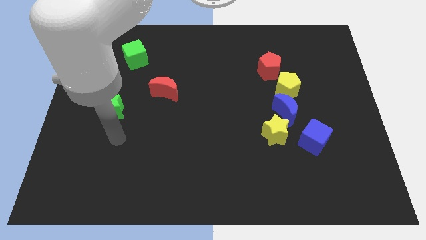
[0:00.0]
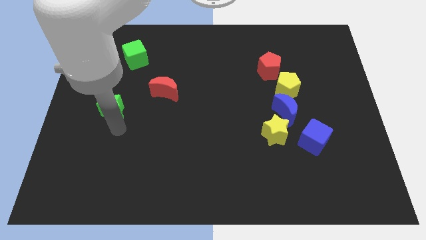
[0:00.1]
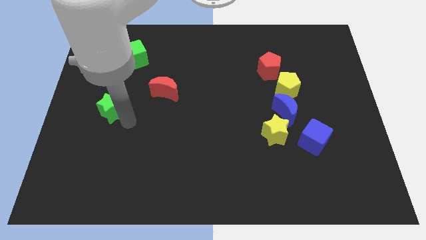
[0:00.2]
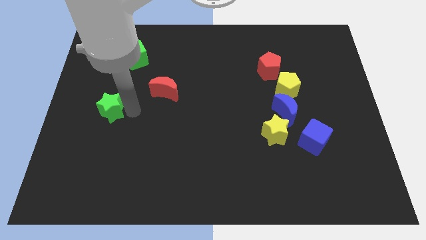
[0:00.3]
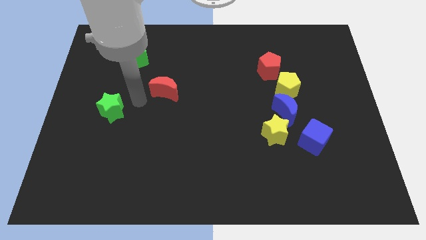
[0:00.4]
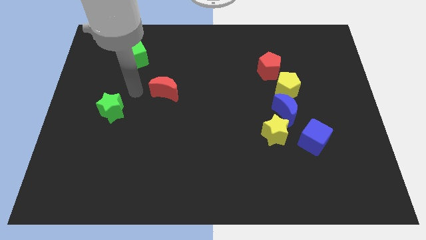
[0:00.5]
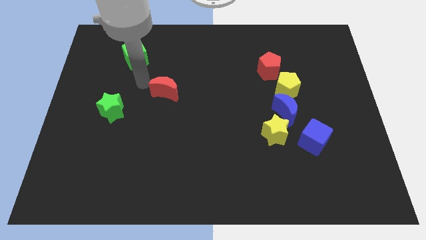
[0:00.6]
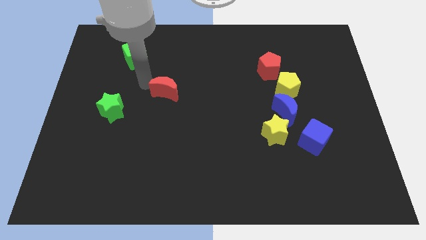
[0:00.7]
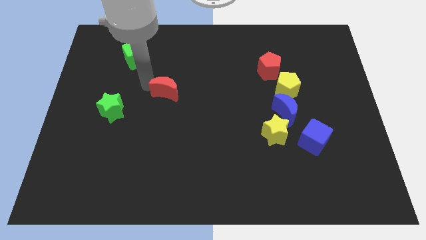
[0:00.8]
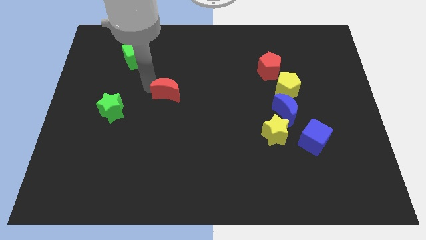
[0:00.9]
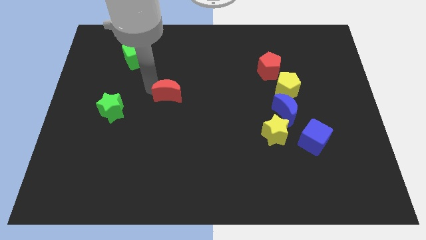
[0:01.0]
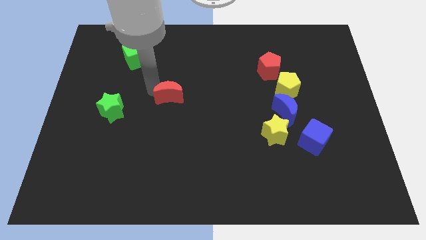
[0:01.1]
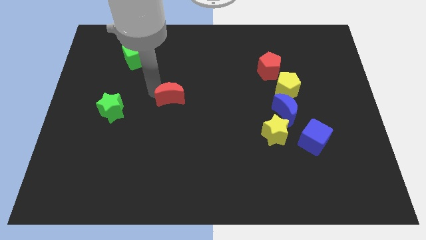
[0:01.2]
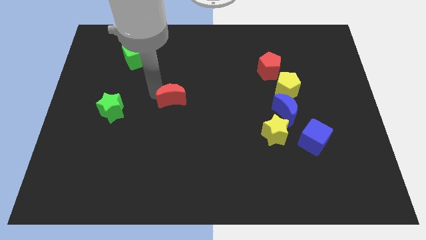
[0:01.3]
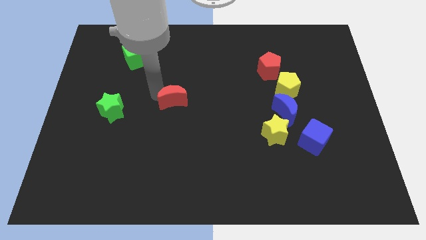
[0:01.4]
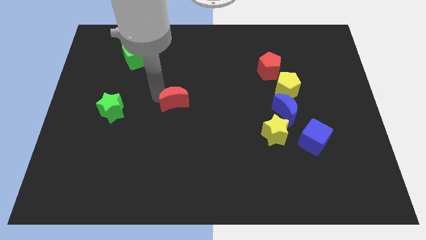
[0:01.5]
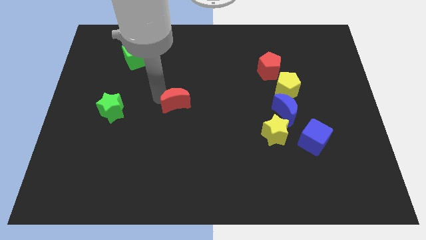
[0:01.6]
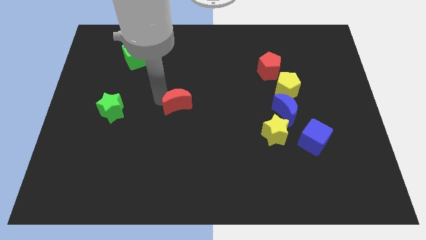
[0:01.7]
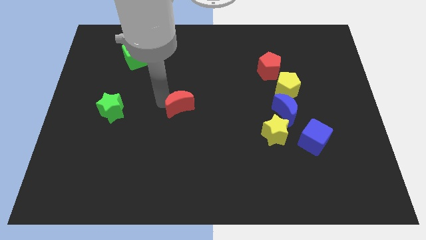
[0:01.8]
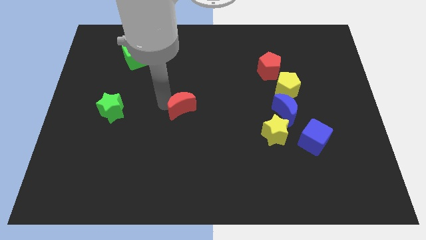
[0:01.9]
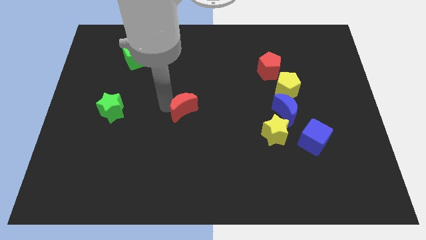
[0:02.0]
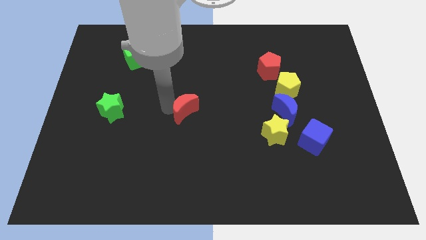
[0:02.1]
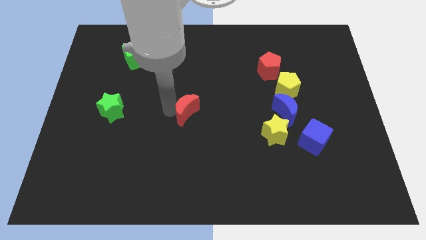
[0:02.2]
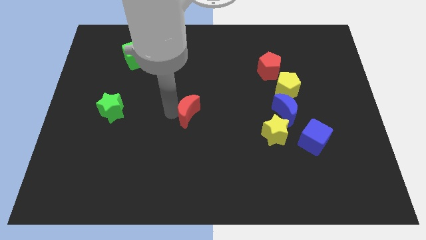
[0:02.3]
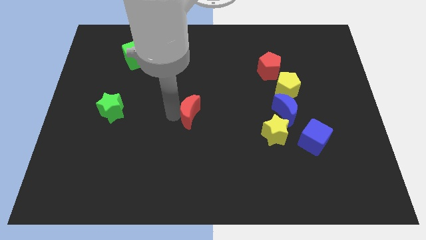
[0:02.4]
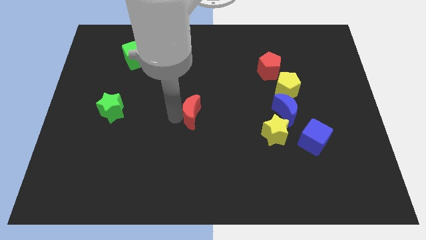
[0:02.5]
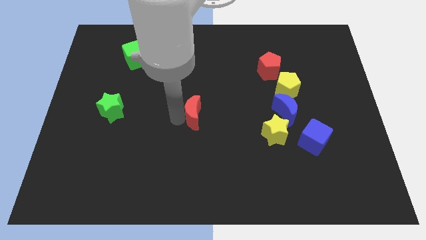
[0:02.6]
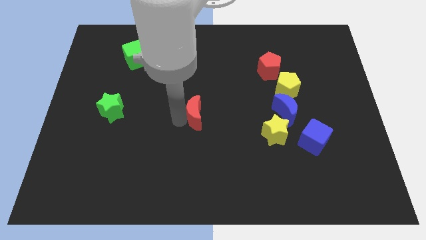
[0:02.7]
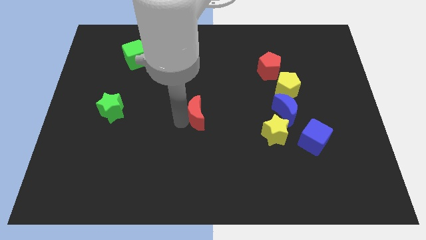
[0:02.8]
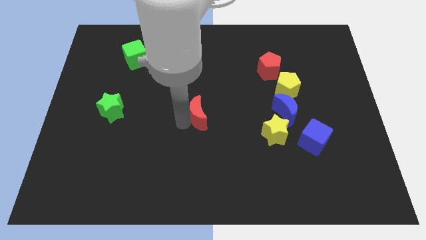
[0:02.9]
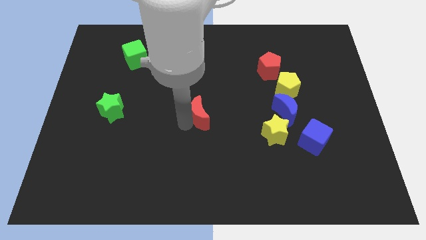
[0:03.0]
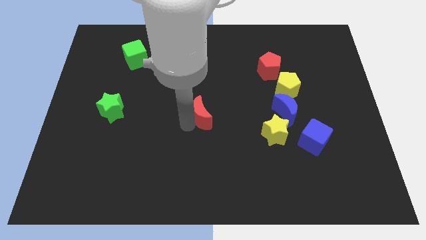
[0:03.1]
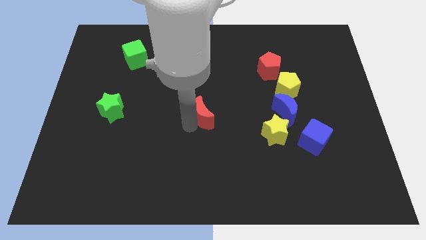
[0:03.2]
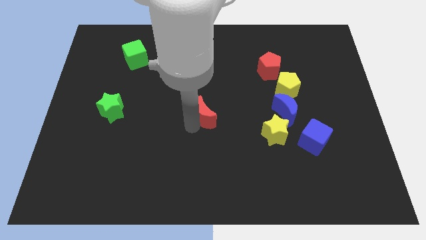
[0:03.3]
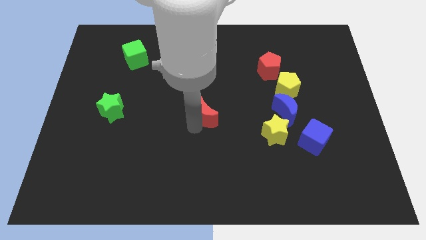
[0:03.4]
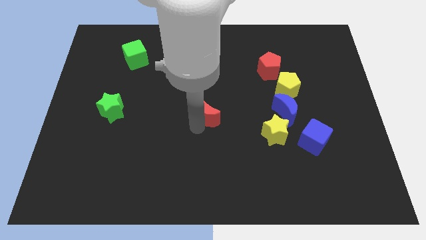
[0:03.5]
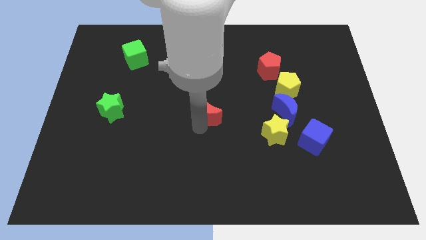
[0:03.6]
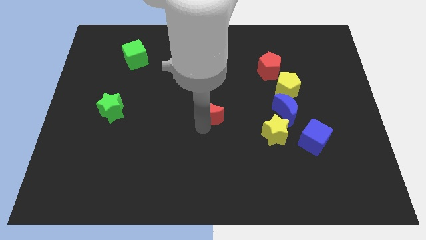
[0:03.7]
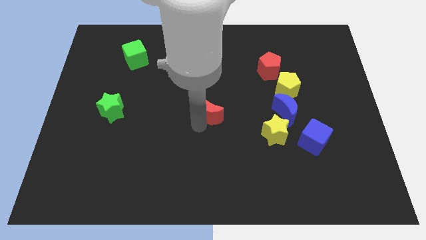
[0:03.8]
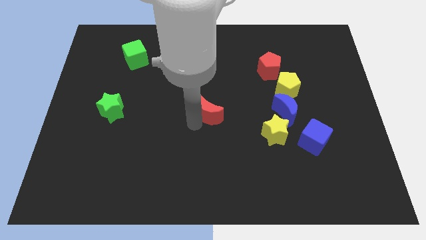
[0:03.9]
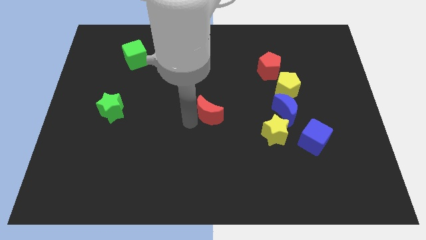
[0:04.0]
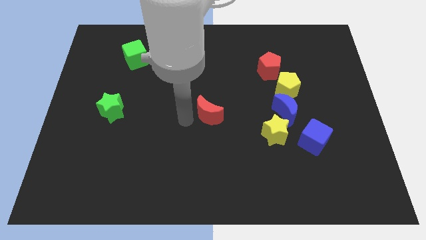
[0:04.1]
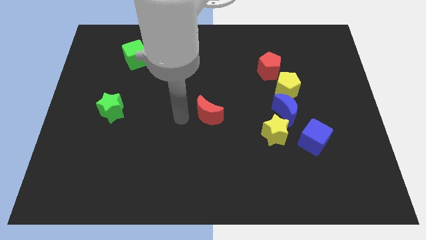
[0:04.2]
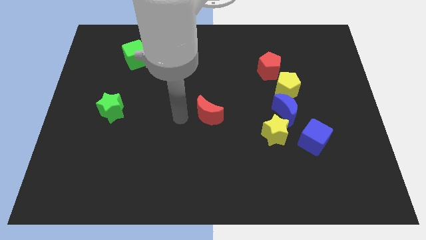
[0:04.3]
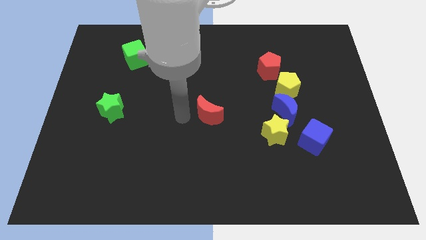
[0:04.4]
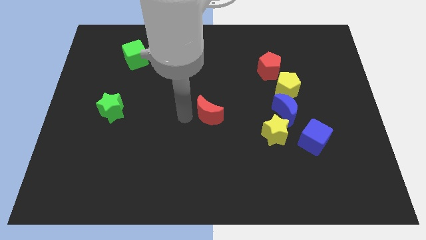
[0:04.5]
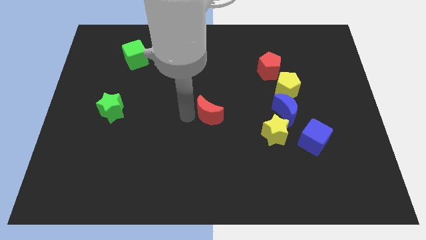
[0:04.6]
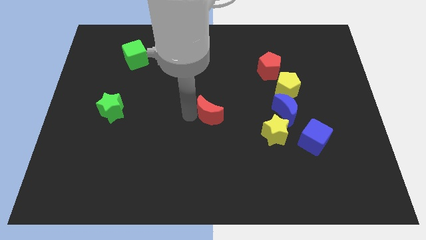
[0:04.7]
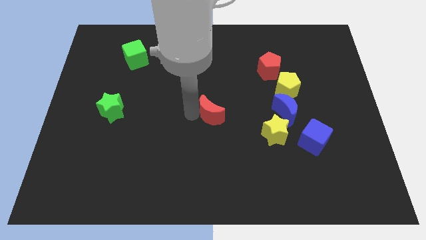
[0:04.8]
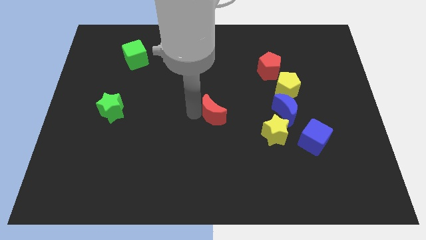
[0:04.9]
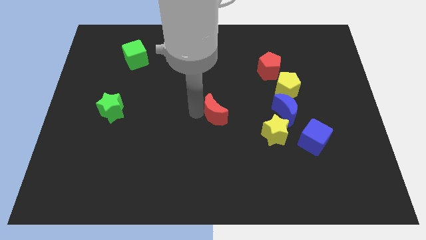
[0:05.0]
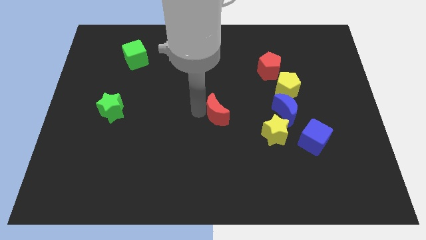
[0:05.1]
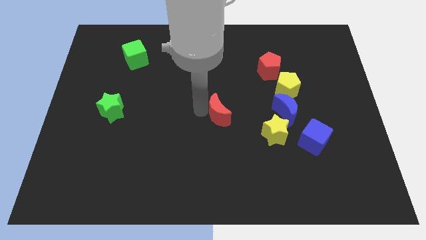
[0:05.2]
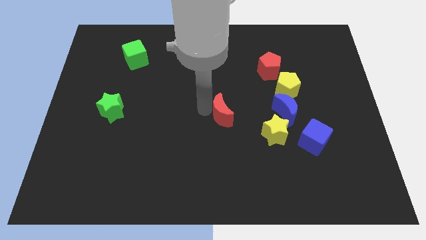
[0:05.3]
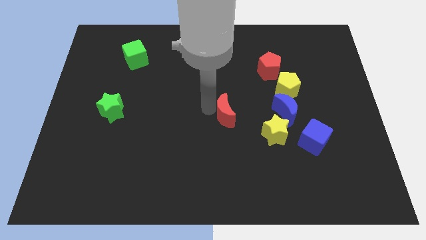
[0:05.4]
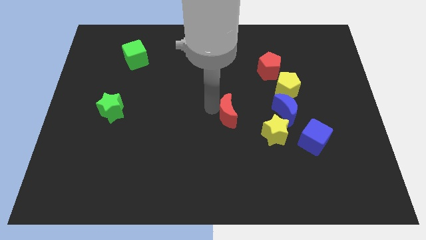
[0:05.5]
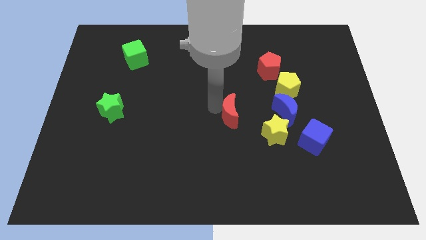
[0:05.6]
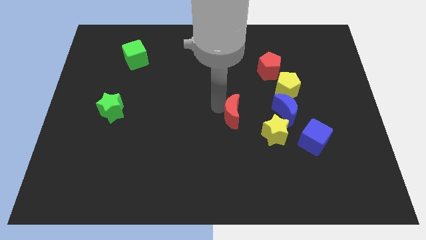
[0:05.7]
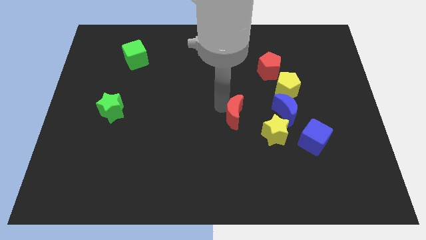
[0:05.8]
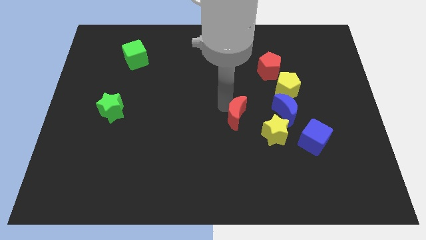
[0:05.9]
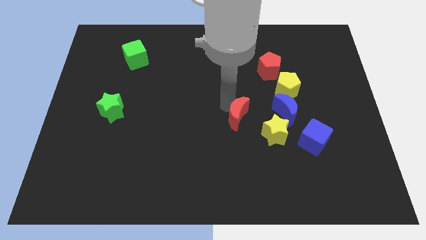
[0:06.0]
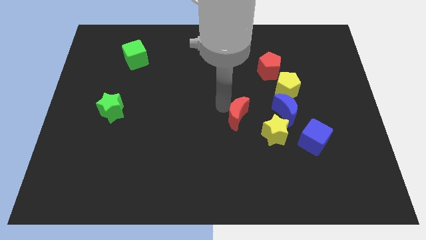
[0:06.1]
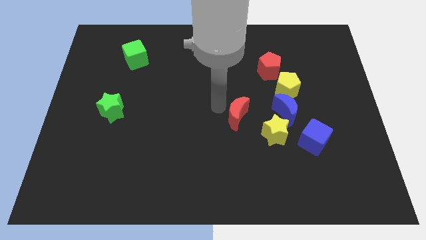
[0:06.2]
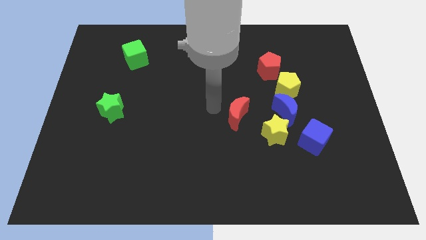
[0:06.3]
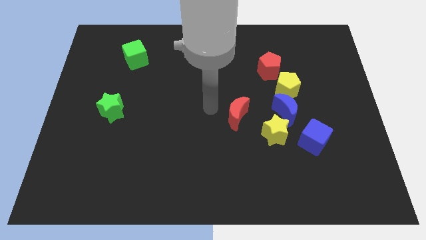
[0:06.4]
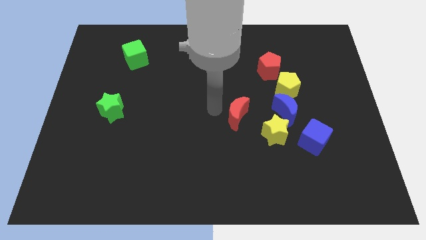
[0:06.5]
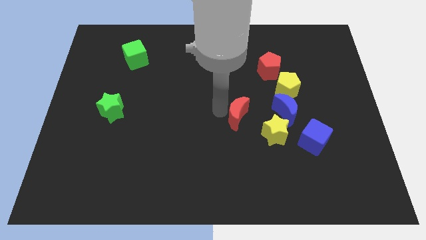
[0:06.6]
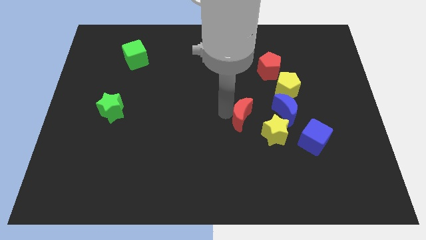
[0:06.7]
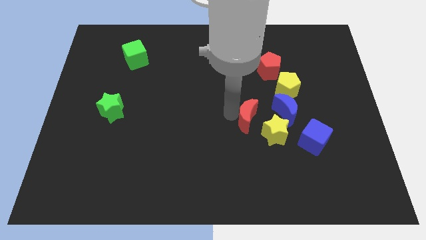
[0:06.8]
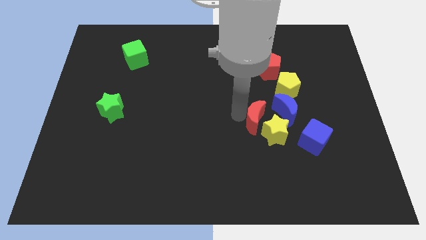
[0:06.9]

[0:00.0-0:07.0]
move the red moon close to the yellow star

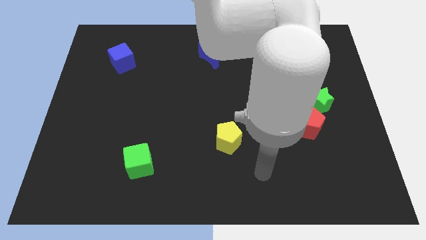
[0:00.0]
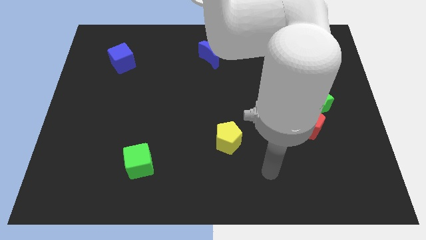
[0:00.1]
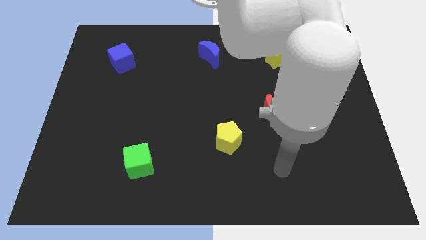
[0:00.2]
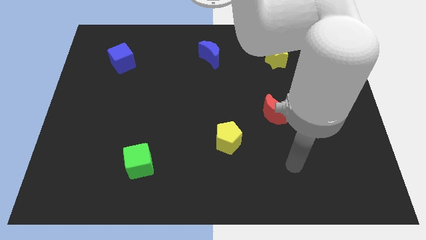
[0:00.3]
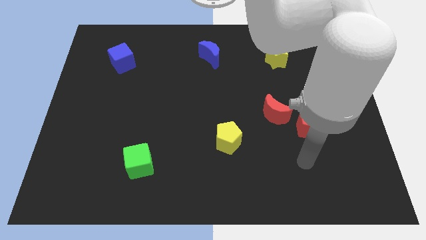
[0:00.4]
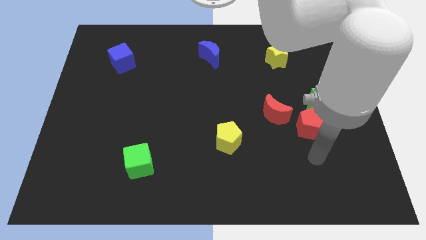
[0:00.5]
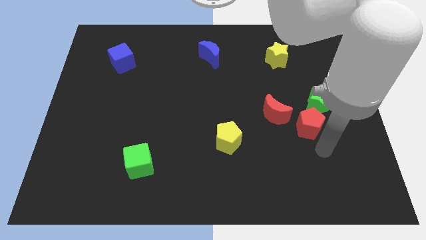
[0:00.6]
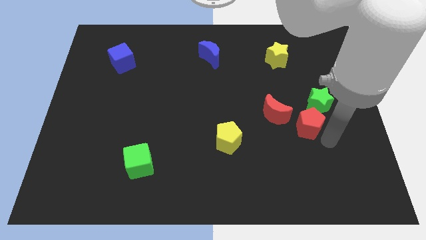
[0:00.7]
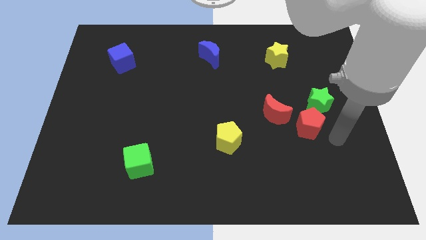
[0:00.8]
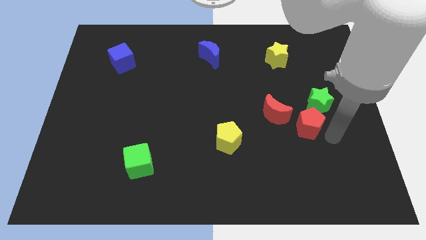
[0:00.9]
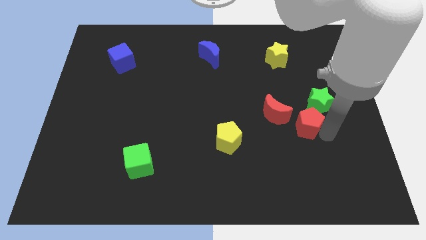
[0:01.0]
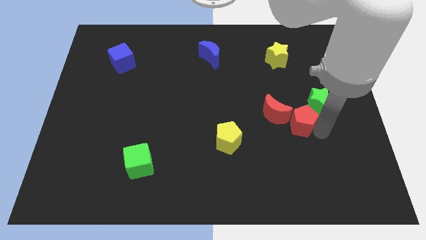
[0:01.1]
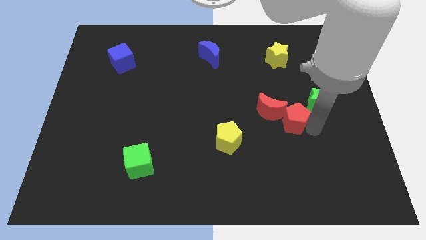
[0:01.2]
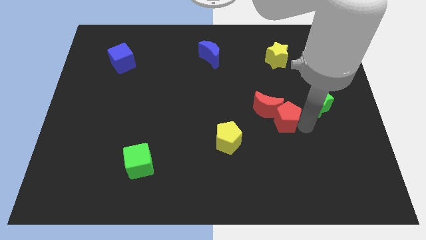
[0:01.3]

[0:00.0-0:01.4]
push the red pentagon next to the red moon
